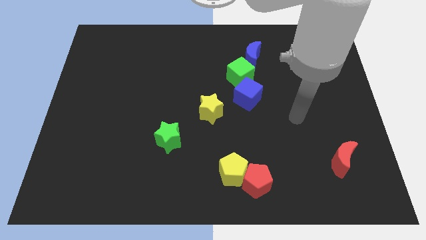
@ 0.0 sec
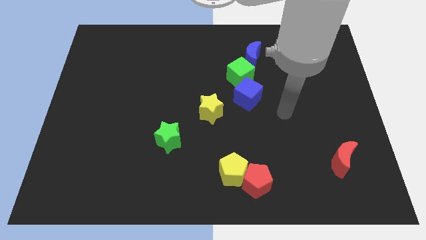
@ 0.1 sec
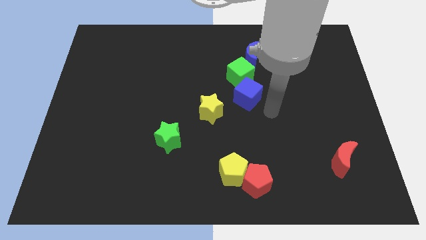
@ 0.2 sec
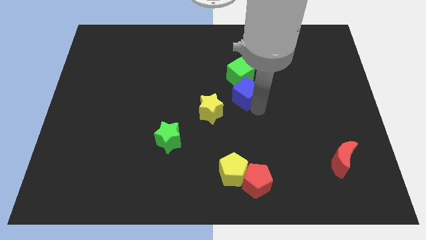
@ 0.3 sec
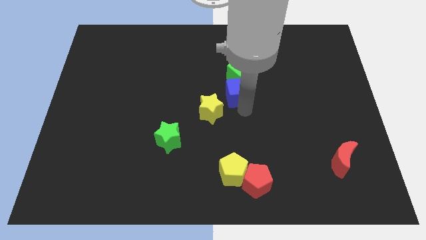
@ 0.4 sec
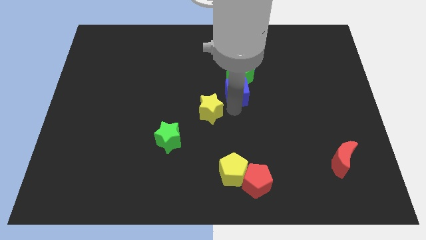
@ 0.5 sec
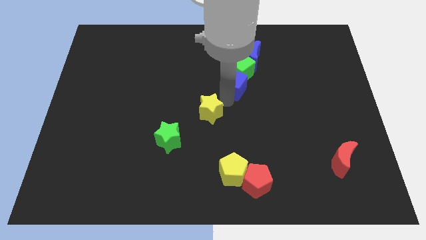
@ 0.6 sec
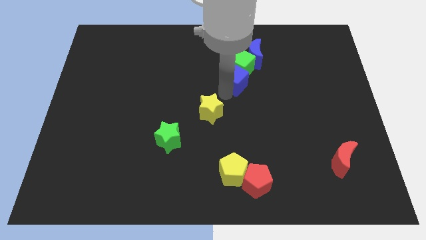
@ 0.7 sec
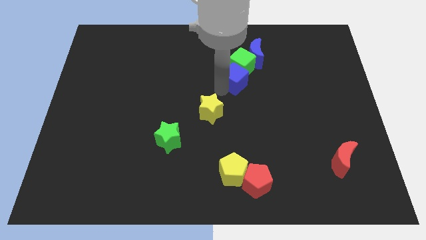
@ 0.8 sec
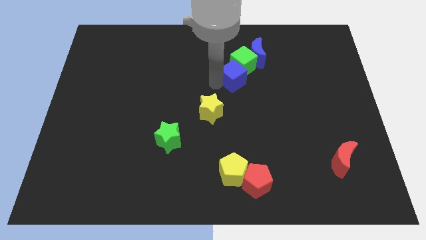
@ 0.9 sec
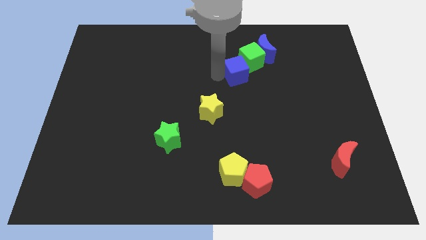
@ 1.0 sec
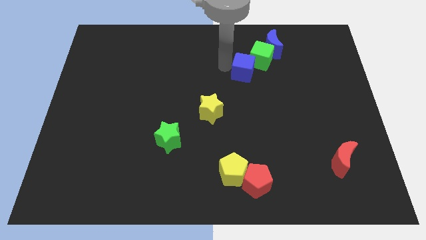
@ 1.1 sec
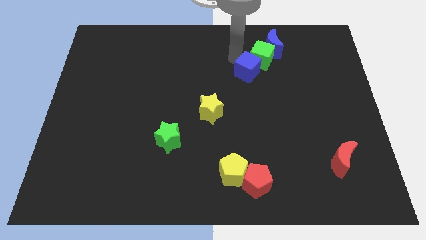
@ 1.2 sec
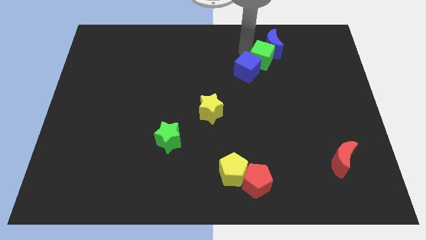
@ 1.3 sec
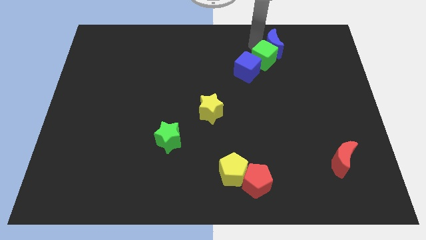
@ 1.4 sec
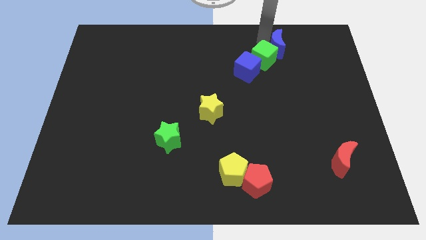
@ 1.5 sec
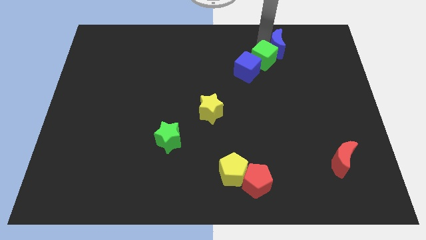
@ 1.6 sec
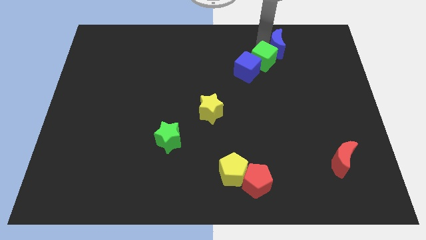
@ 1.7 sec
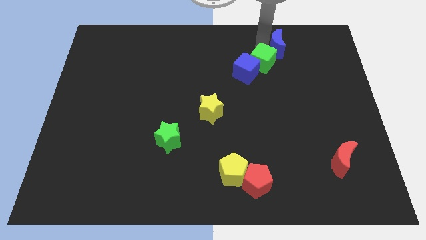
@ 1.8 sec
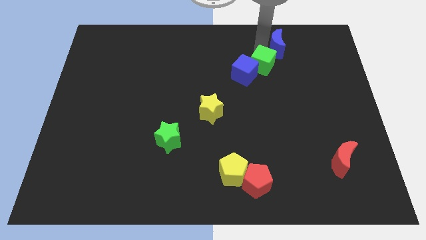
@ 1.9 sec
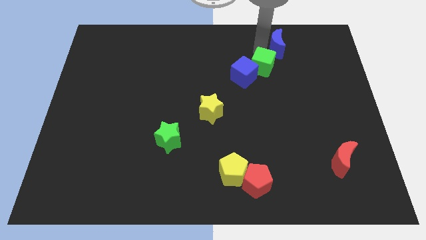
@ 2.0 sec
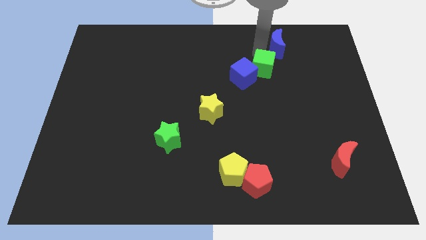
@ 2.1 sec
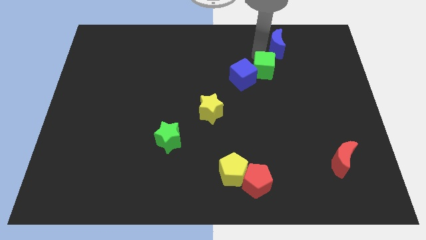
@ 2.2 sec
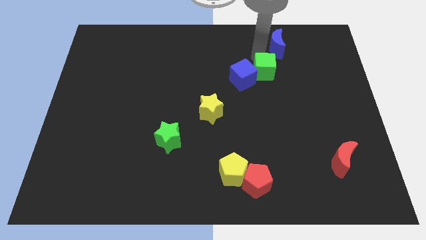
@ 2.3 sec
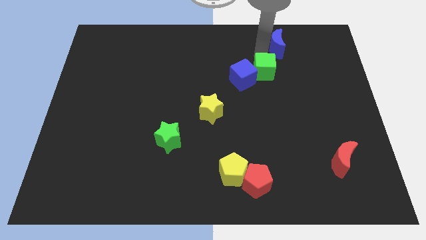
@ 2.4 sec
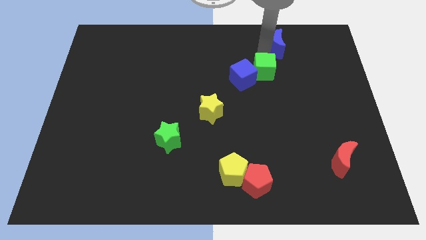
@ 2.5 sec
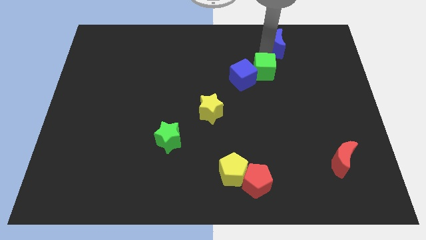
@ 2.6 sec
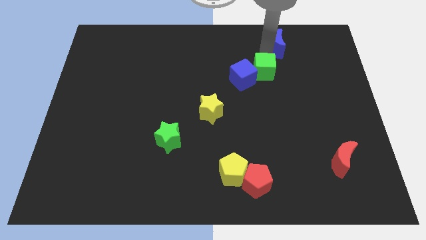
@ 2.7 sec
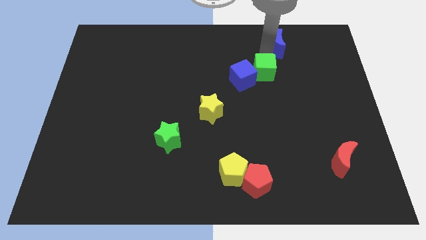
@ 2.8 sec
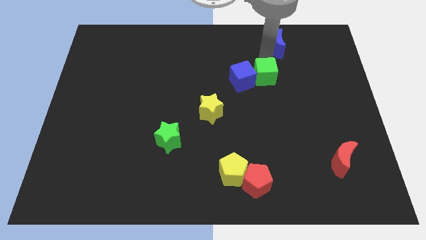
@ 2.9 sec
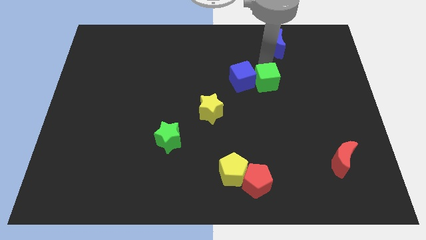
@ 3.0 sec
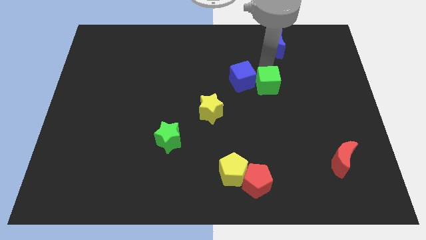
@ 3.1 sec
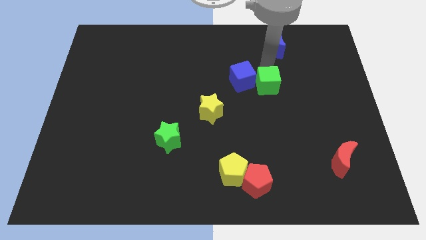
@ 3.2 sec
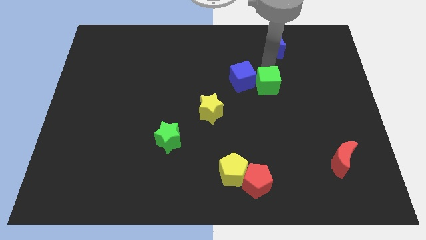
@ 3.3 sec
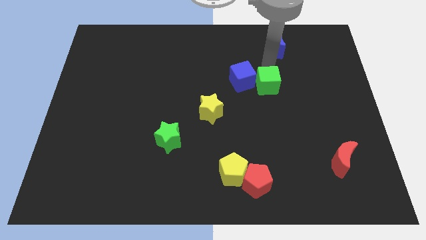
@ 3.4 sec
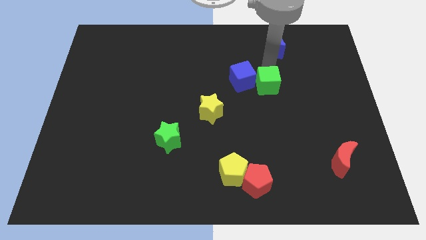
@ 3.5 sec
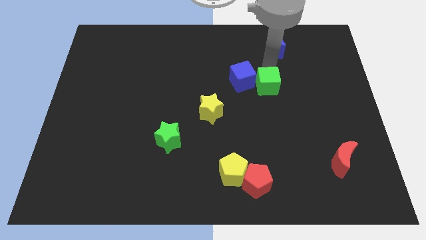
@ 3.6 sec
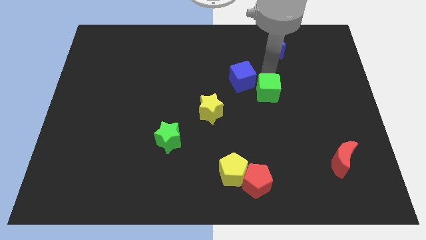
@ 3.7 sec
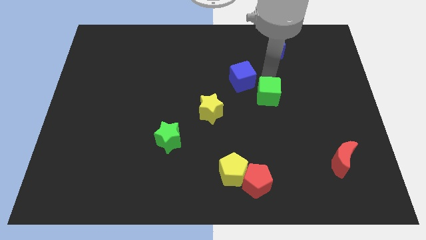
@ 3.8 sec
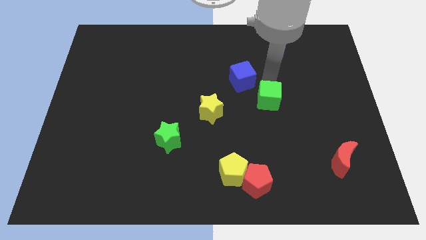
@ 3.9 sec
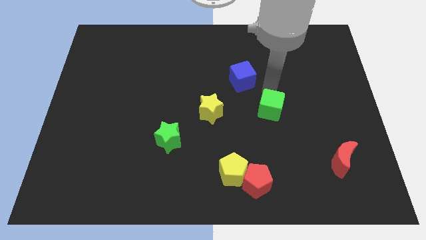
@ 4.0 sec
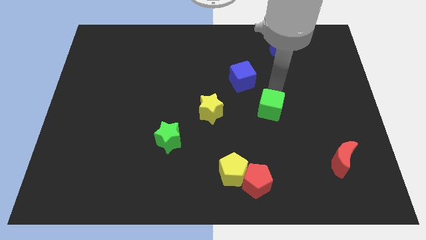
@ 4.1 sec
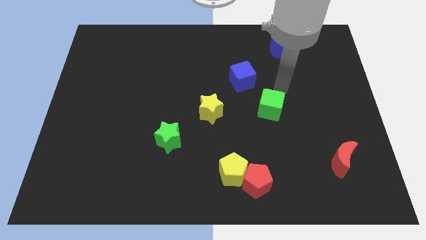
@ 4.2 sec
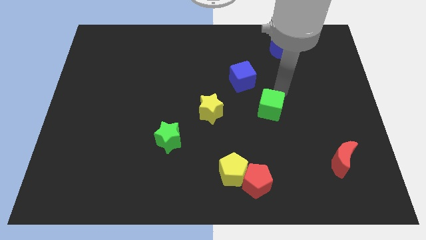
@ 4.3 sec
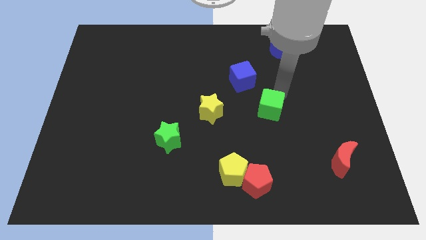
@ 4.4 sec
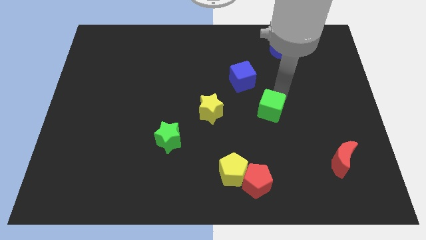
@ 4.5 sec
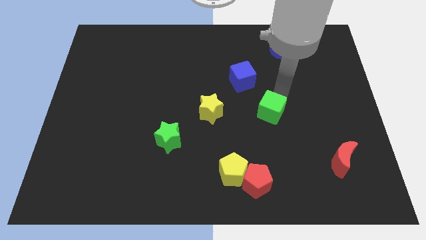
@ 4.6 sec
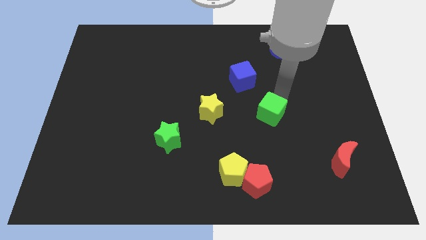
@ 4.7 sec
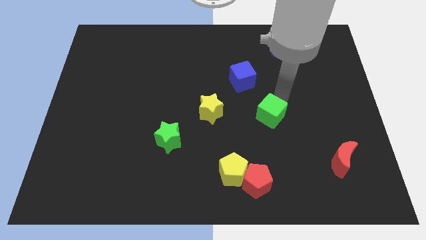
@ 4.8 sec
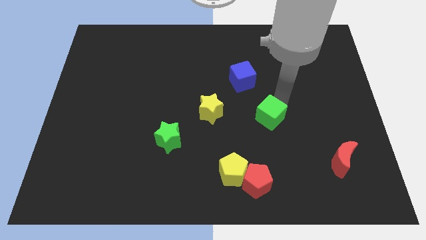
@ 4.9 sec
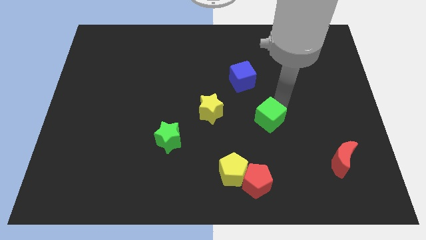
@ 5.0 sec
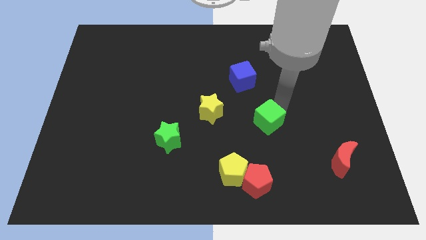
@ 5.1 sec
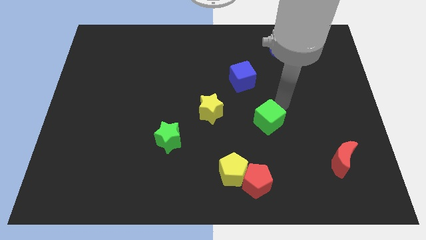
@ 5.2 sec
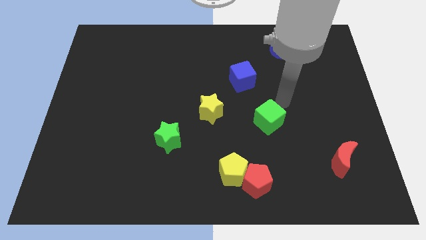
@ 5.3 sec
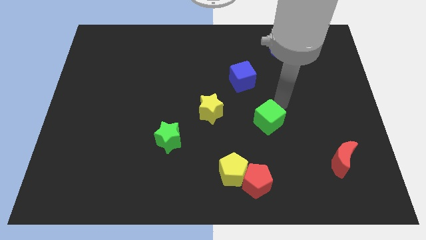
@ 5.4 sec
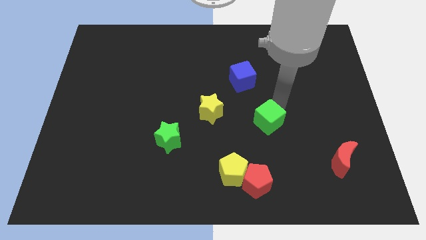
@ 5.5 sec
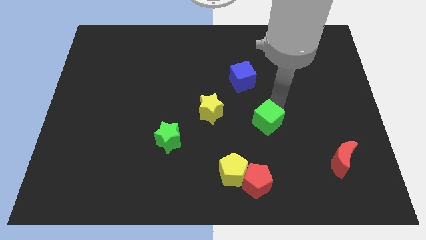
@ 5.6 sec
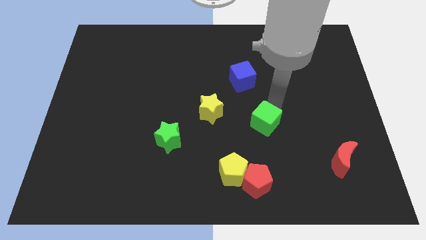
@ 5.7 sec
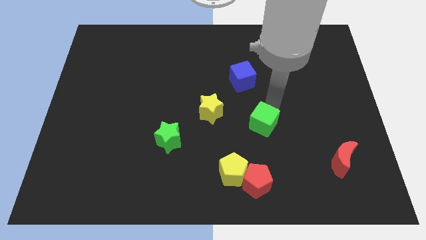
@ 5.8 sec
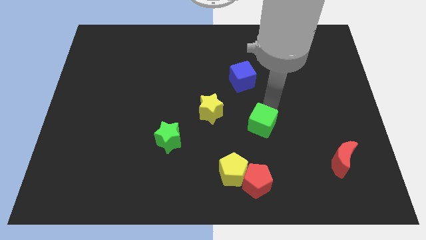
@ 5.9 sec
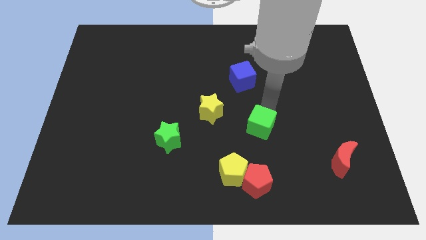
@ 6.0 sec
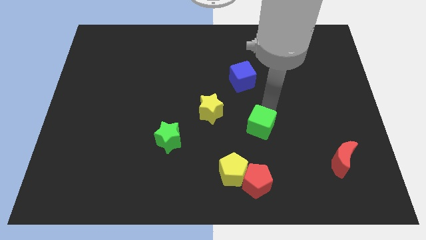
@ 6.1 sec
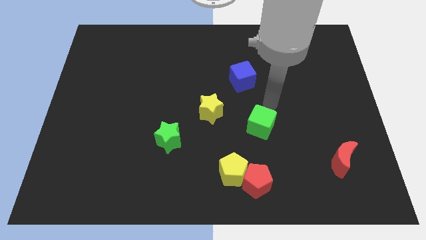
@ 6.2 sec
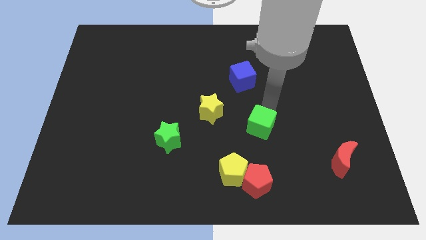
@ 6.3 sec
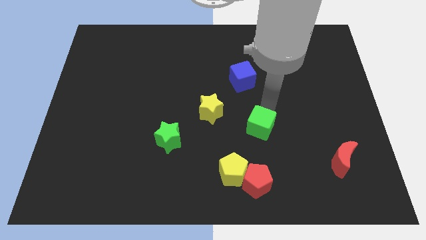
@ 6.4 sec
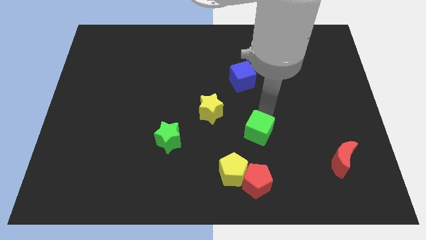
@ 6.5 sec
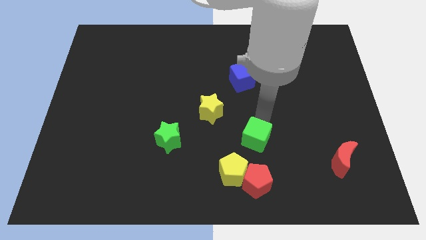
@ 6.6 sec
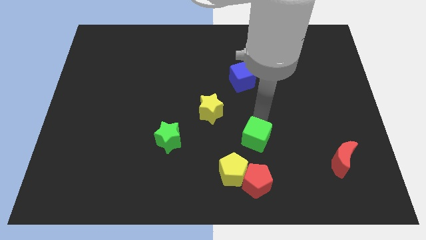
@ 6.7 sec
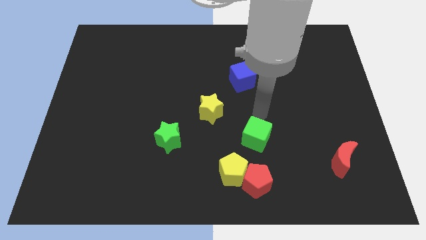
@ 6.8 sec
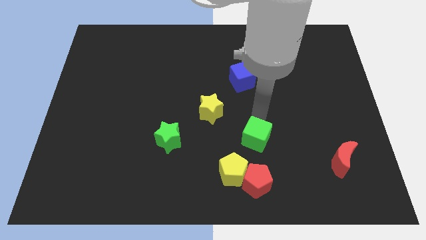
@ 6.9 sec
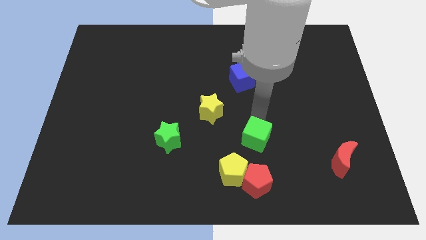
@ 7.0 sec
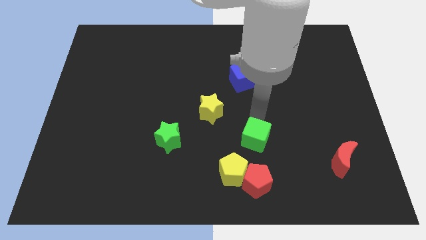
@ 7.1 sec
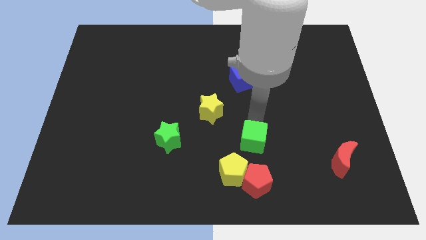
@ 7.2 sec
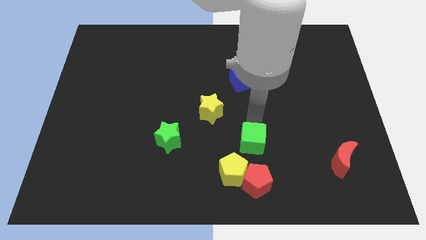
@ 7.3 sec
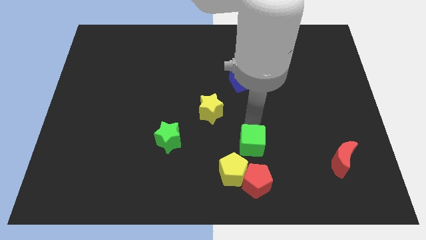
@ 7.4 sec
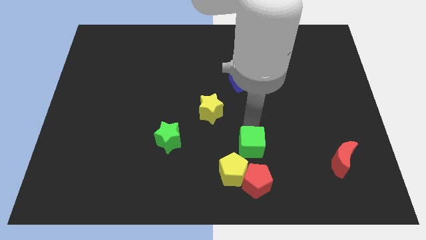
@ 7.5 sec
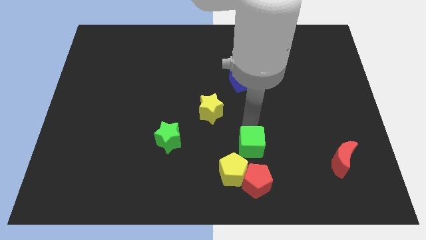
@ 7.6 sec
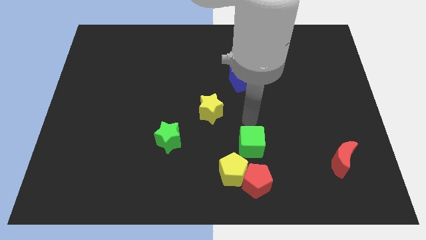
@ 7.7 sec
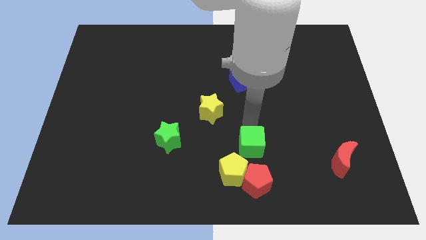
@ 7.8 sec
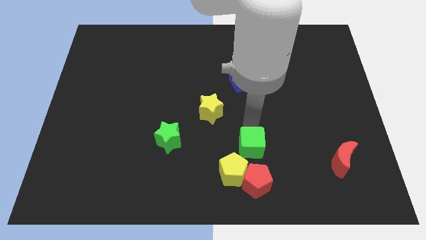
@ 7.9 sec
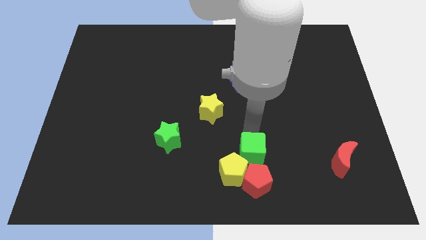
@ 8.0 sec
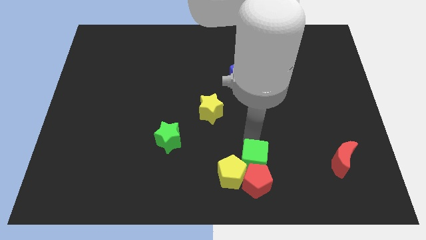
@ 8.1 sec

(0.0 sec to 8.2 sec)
push the green cube close to the red pentagon
